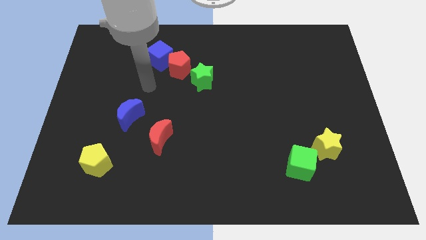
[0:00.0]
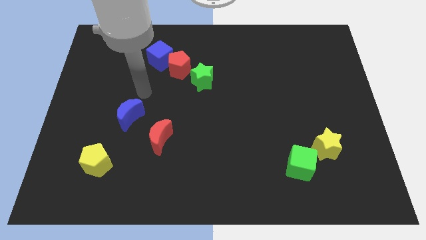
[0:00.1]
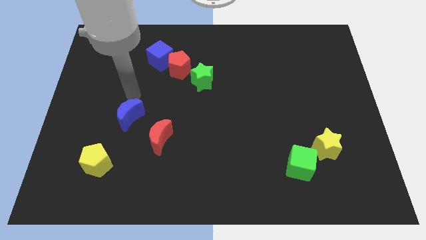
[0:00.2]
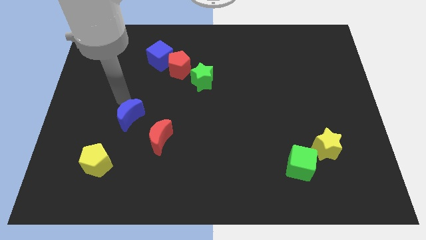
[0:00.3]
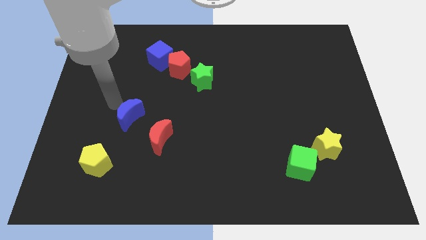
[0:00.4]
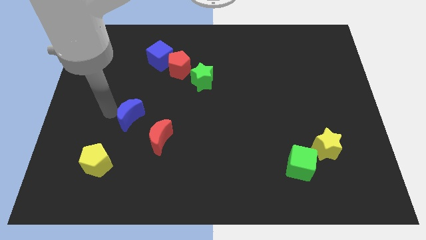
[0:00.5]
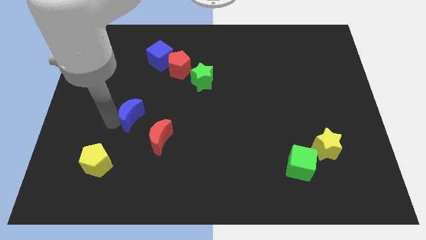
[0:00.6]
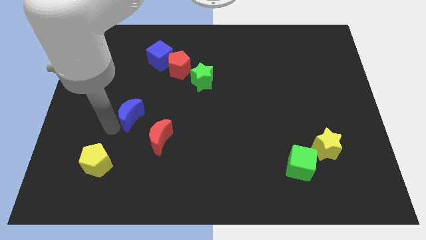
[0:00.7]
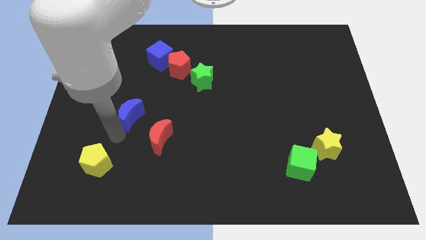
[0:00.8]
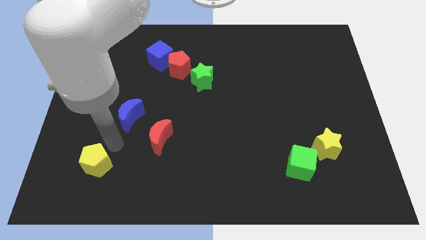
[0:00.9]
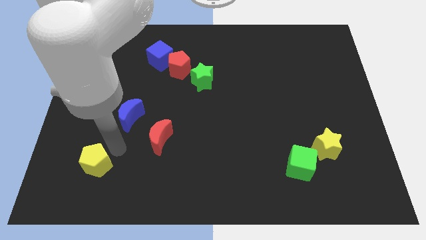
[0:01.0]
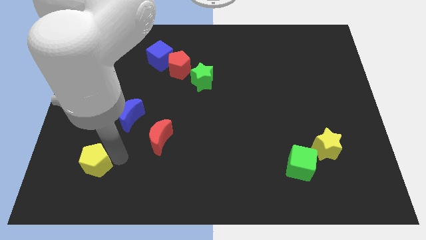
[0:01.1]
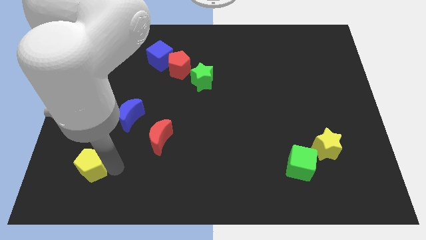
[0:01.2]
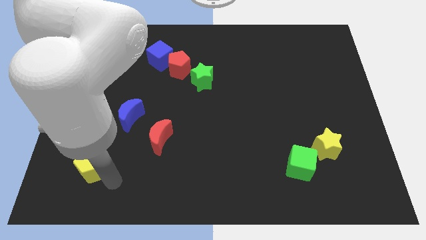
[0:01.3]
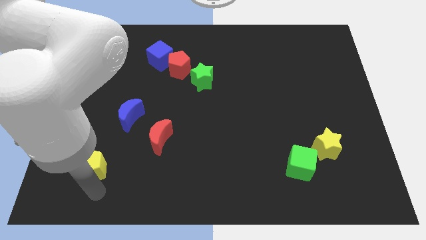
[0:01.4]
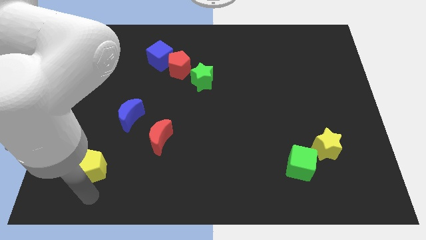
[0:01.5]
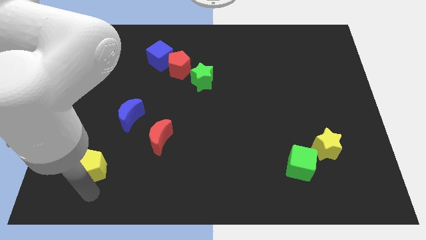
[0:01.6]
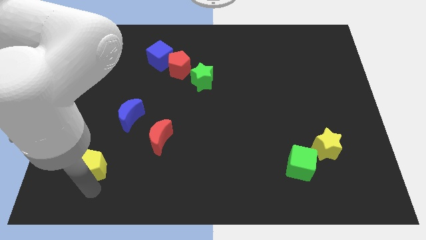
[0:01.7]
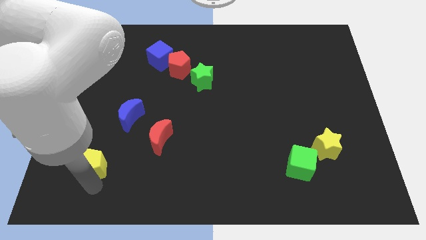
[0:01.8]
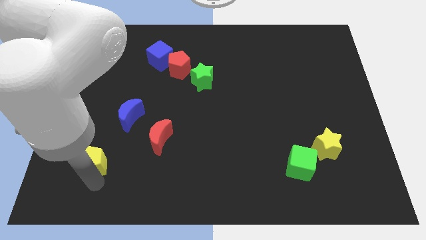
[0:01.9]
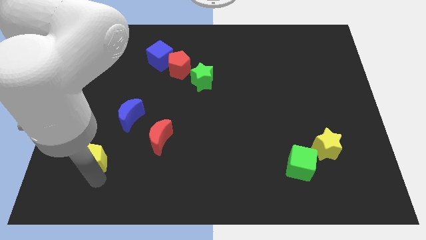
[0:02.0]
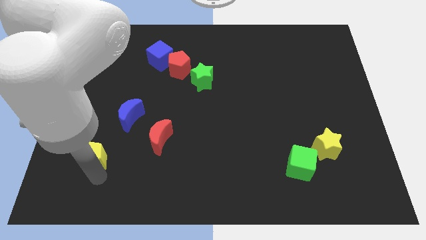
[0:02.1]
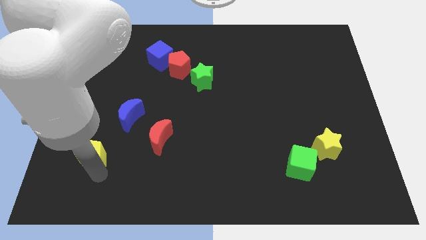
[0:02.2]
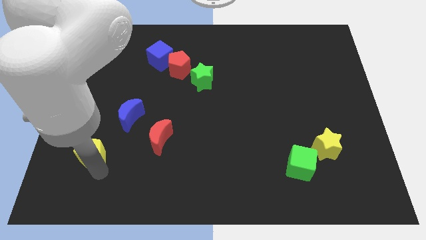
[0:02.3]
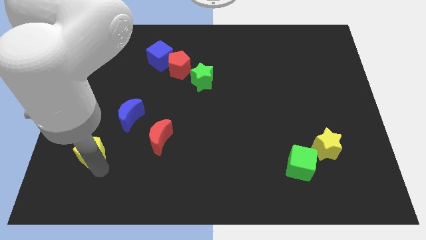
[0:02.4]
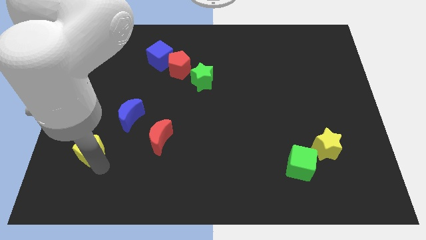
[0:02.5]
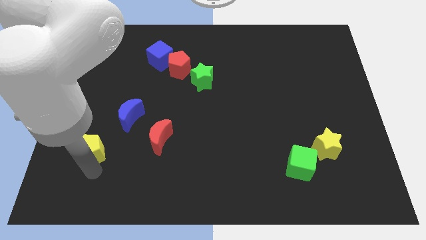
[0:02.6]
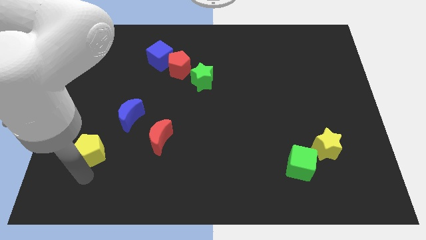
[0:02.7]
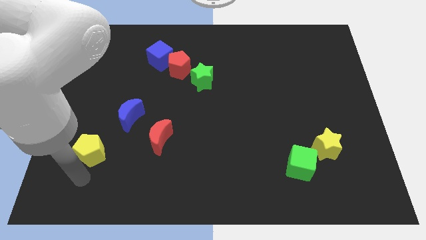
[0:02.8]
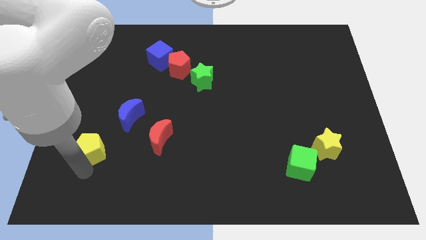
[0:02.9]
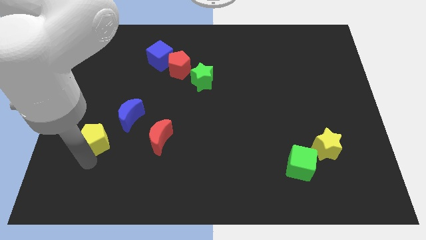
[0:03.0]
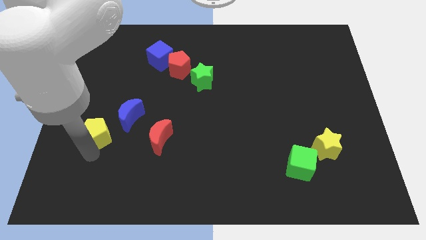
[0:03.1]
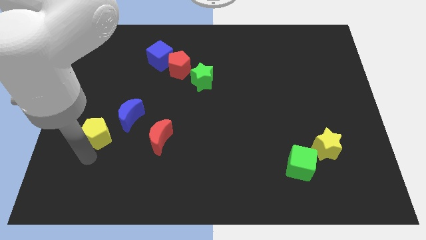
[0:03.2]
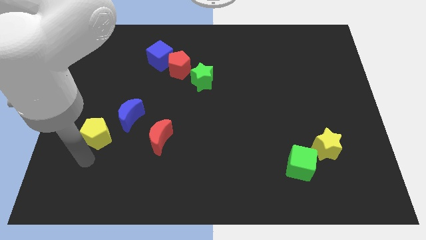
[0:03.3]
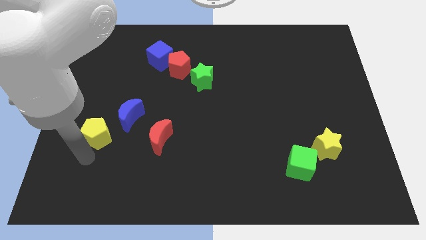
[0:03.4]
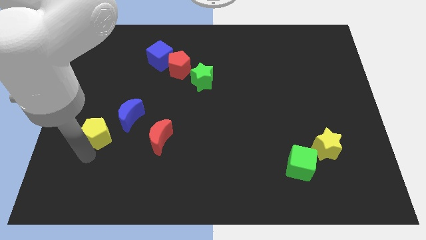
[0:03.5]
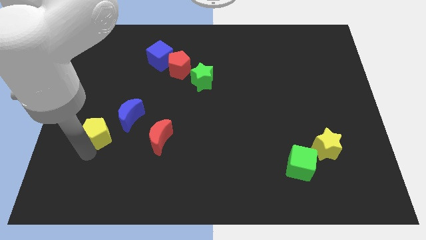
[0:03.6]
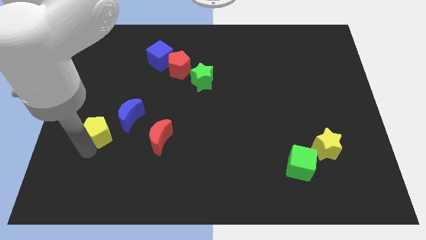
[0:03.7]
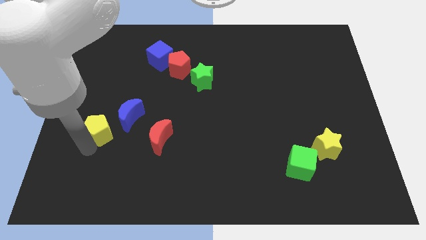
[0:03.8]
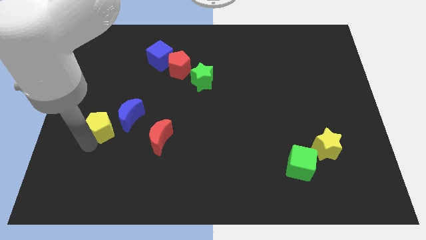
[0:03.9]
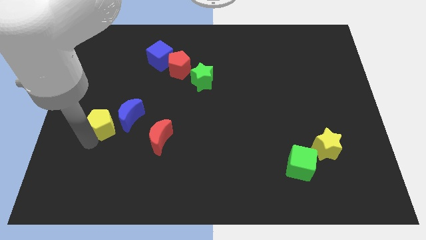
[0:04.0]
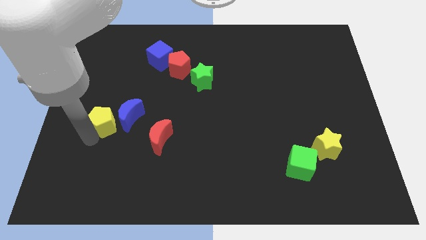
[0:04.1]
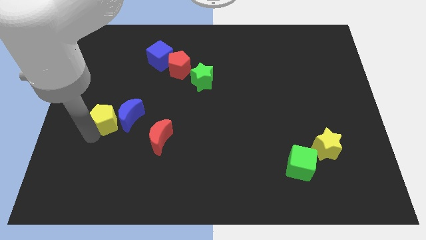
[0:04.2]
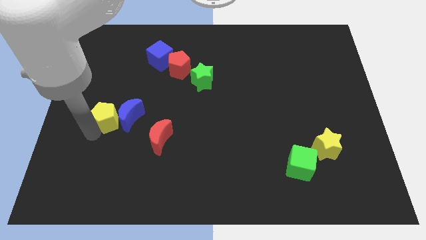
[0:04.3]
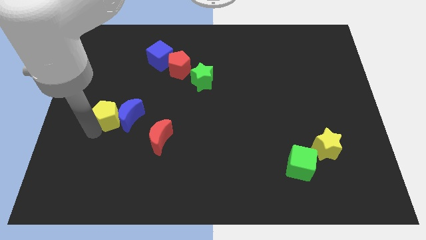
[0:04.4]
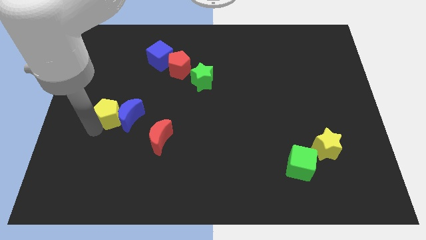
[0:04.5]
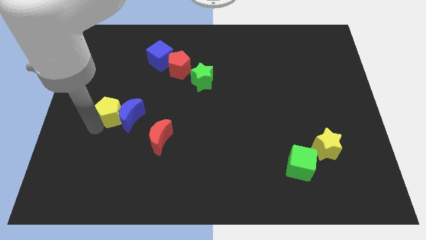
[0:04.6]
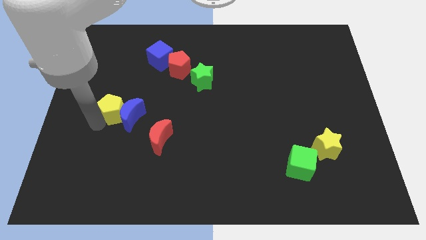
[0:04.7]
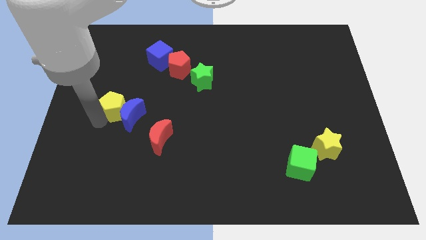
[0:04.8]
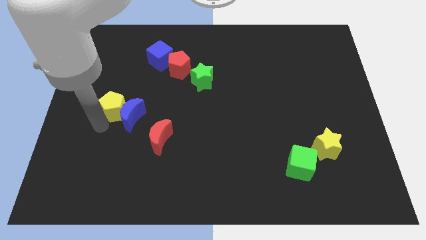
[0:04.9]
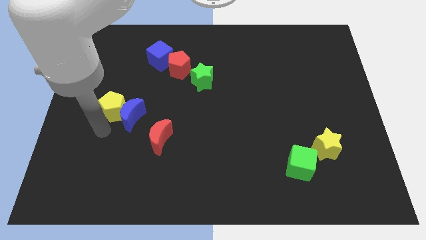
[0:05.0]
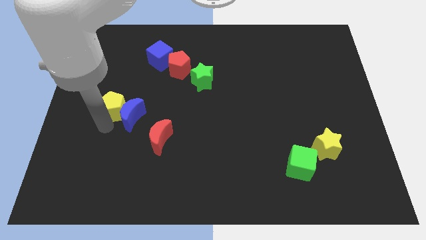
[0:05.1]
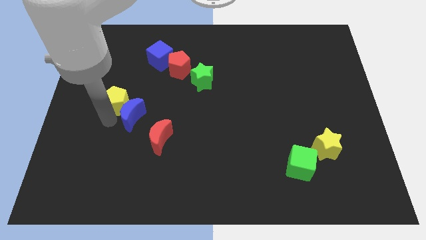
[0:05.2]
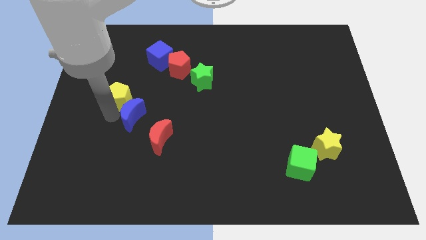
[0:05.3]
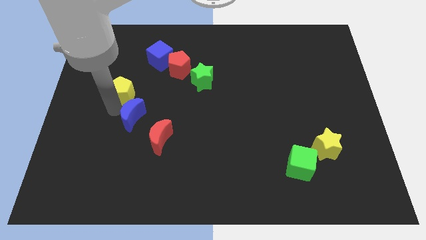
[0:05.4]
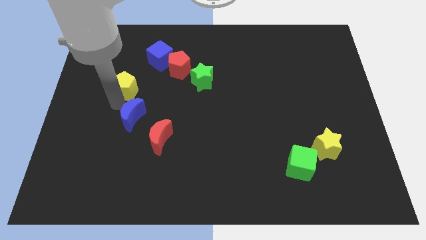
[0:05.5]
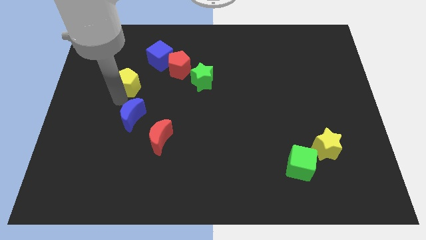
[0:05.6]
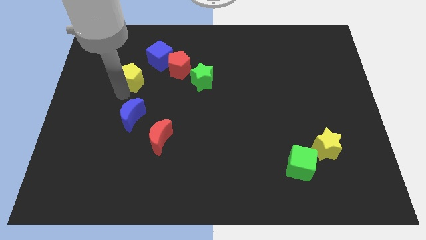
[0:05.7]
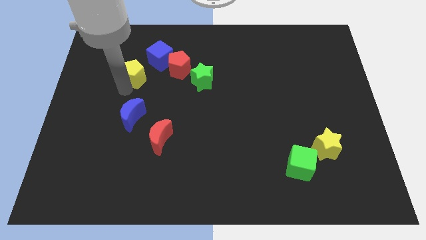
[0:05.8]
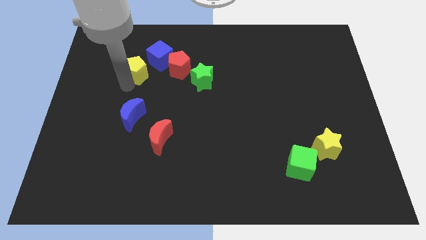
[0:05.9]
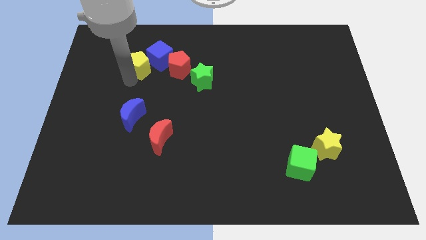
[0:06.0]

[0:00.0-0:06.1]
push the yellow pentagon towards the blue cube

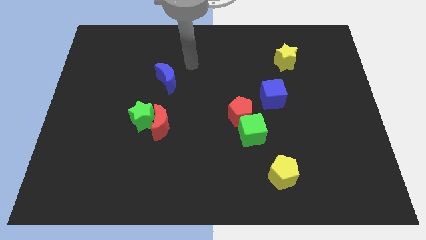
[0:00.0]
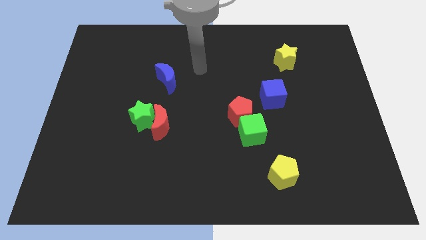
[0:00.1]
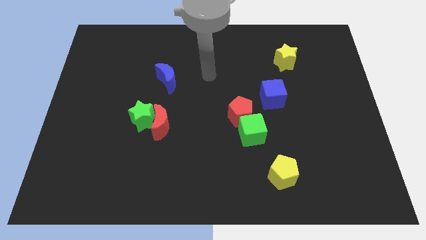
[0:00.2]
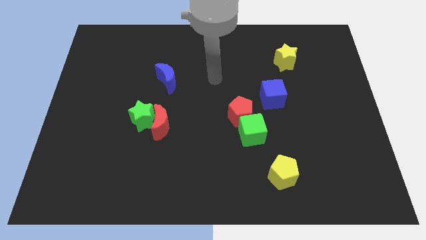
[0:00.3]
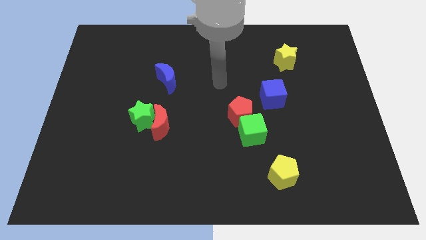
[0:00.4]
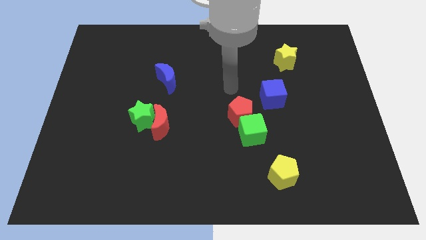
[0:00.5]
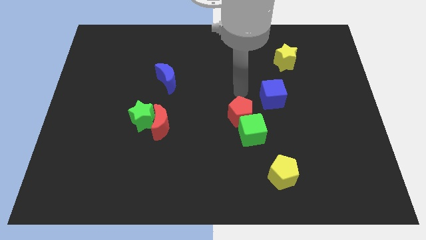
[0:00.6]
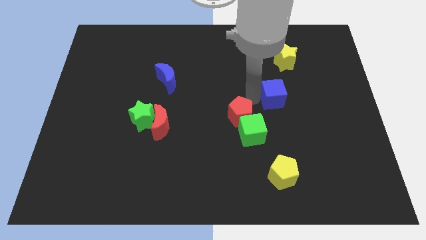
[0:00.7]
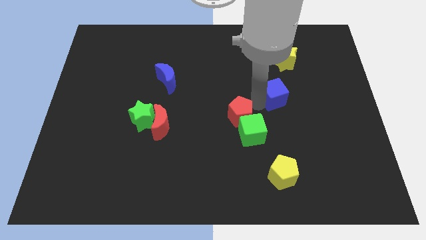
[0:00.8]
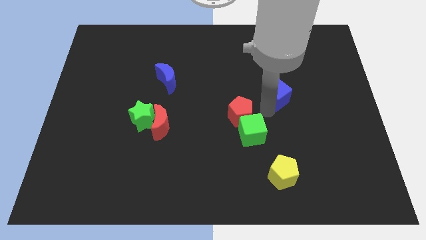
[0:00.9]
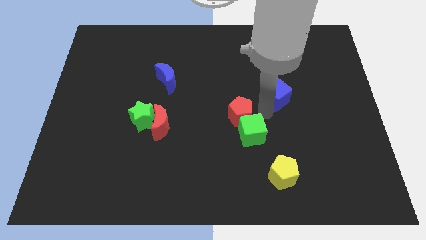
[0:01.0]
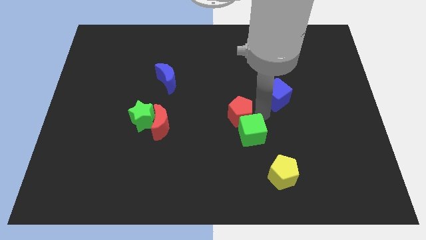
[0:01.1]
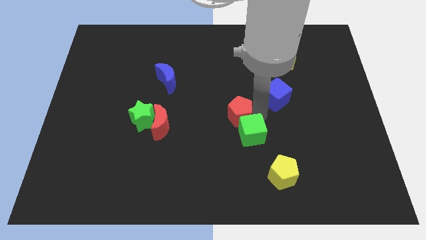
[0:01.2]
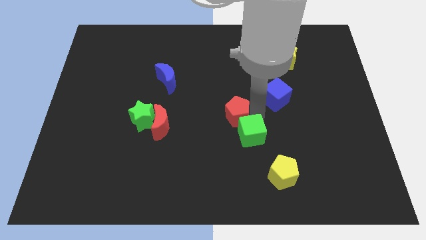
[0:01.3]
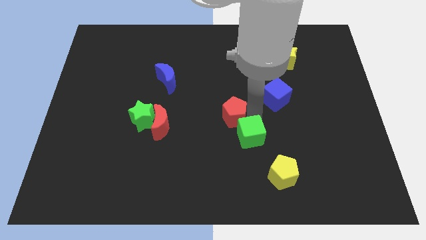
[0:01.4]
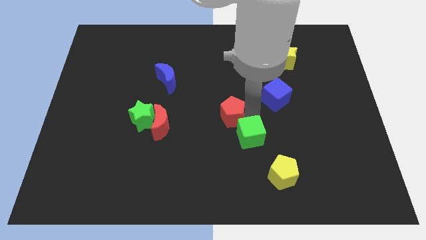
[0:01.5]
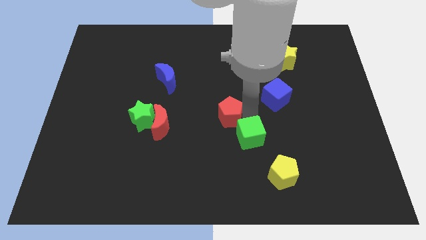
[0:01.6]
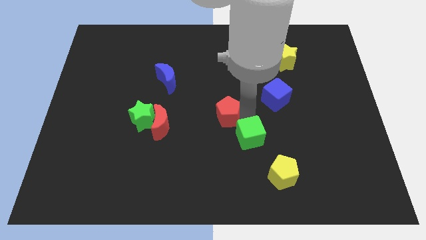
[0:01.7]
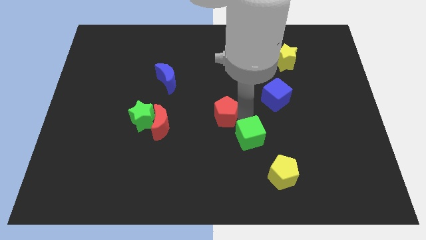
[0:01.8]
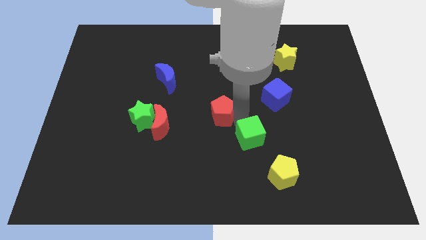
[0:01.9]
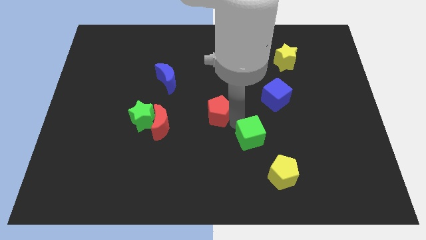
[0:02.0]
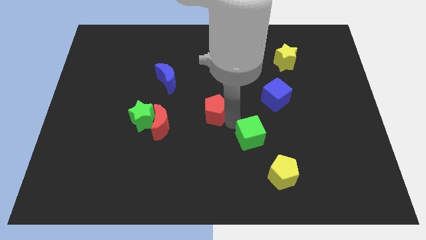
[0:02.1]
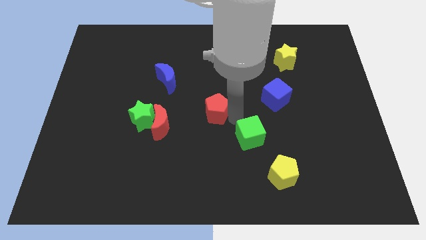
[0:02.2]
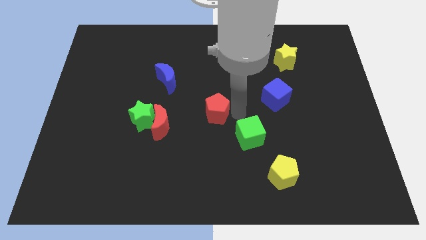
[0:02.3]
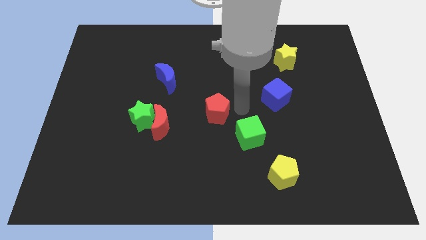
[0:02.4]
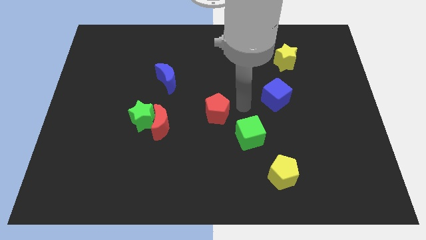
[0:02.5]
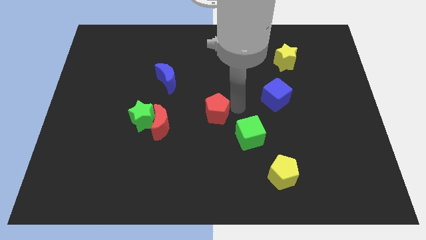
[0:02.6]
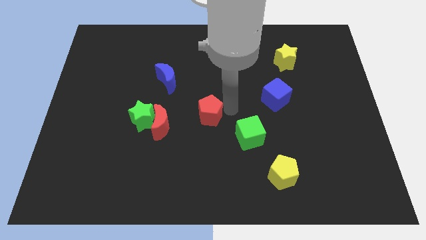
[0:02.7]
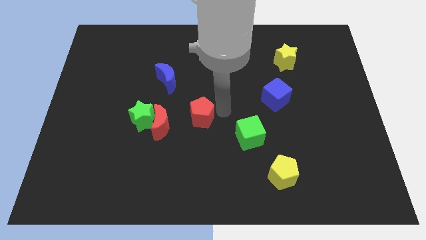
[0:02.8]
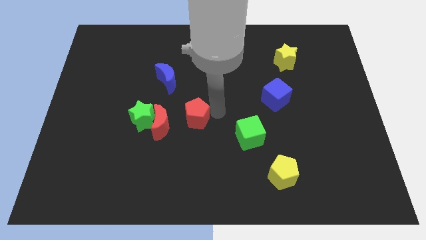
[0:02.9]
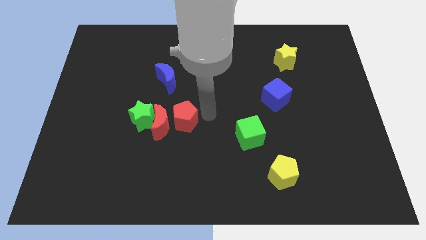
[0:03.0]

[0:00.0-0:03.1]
put the red pentagon towards the red moon
